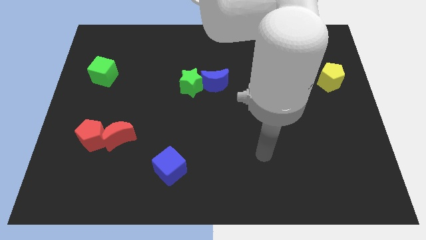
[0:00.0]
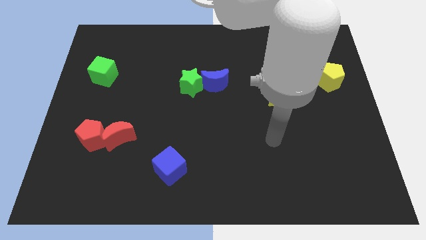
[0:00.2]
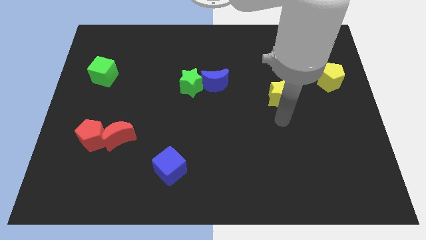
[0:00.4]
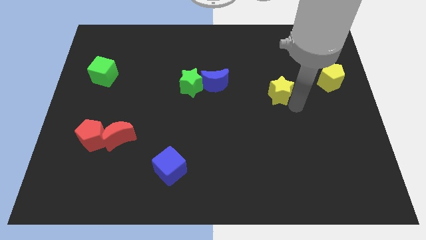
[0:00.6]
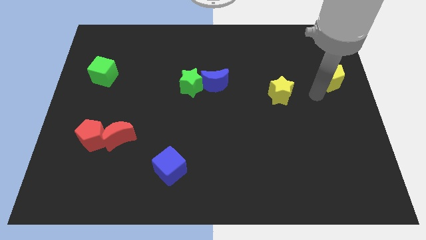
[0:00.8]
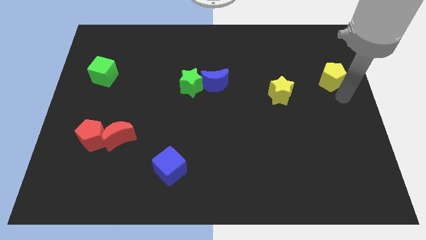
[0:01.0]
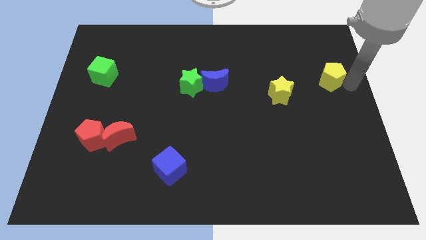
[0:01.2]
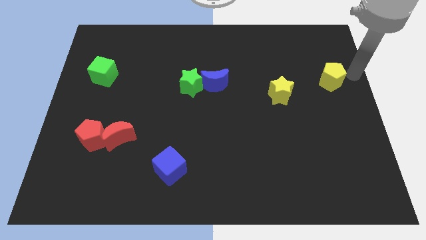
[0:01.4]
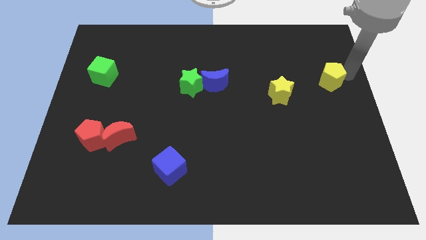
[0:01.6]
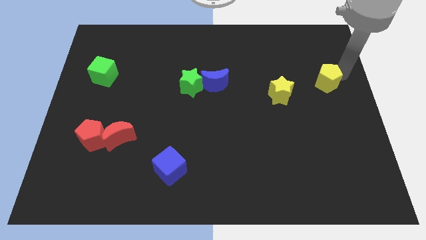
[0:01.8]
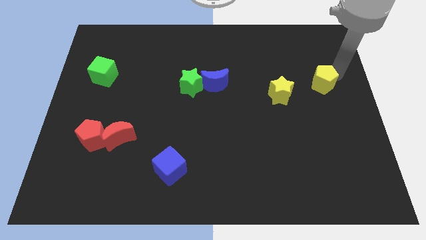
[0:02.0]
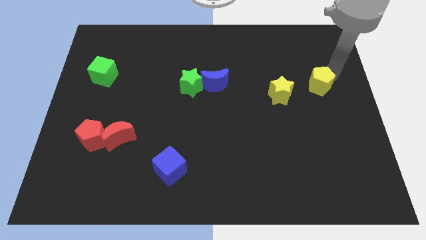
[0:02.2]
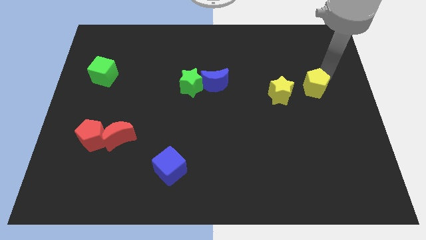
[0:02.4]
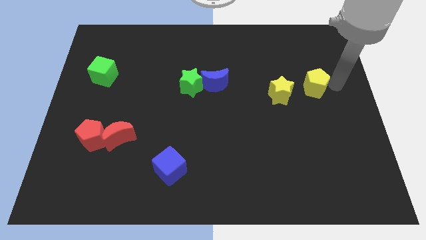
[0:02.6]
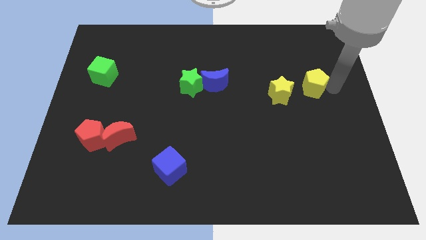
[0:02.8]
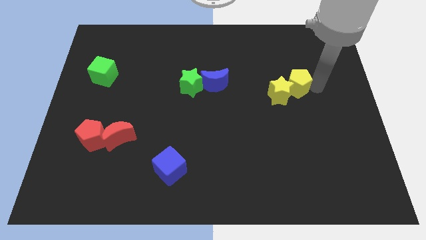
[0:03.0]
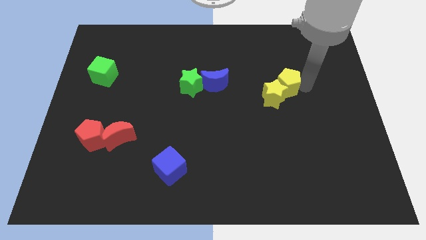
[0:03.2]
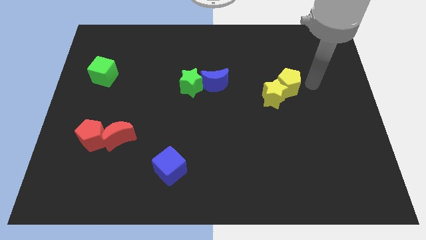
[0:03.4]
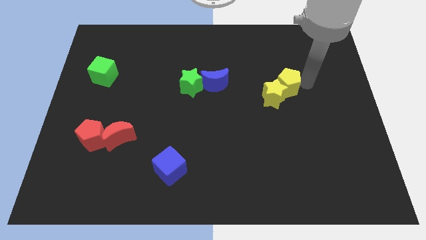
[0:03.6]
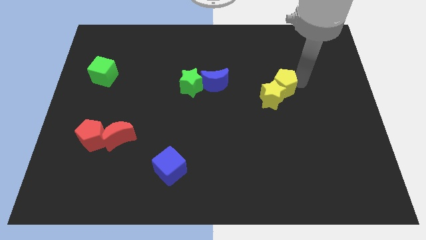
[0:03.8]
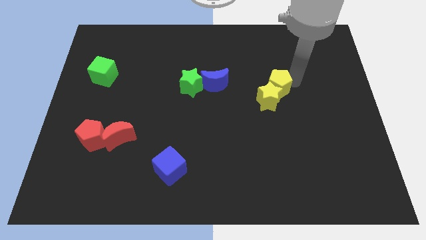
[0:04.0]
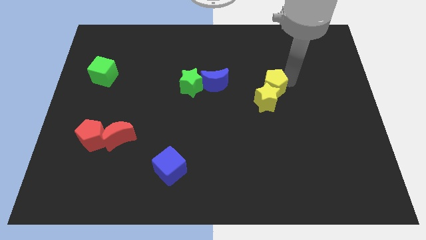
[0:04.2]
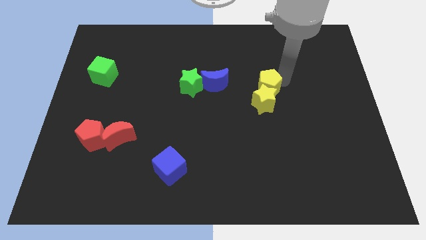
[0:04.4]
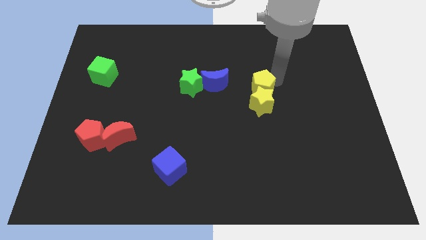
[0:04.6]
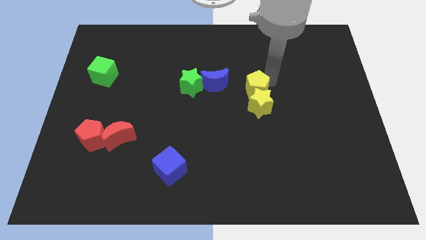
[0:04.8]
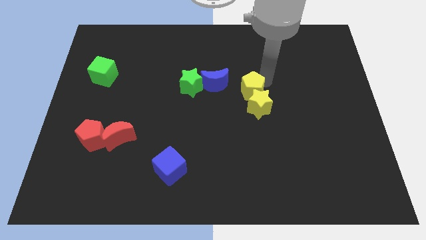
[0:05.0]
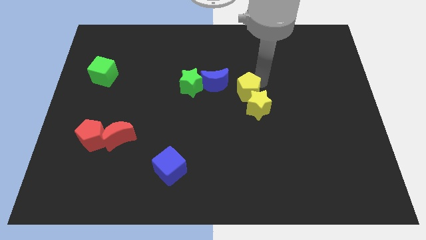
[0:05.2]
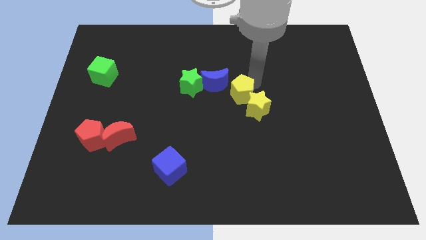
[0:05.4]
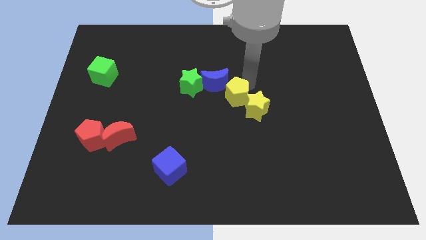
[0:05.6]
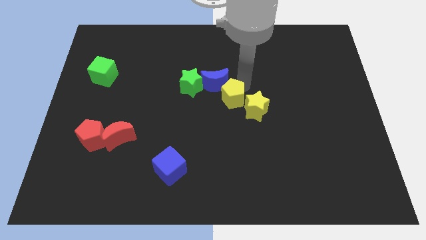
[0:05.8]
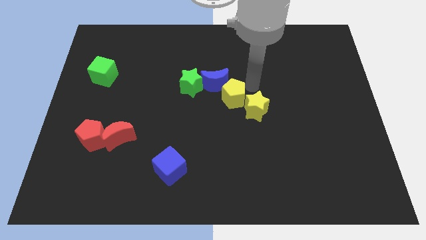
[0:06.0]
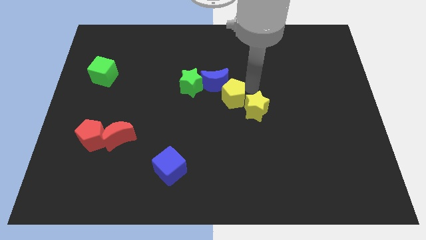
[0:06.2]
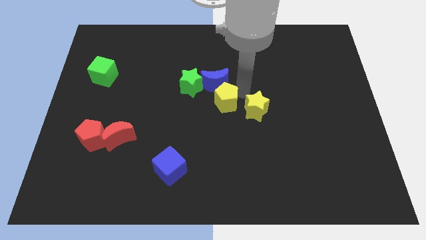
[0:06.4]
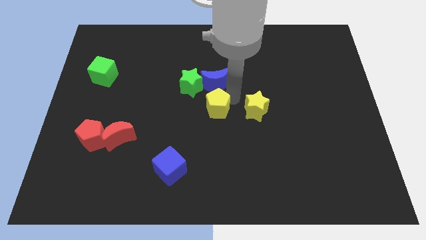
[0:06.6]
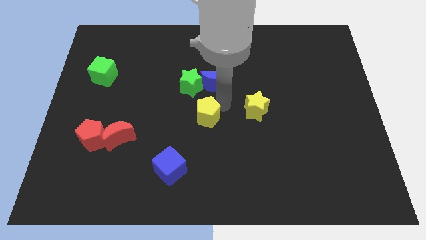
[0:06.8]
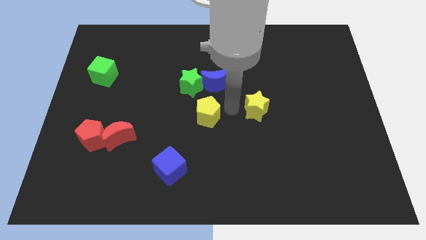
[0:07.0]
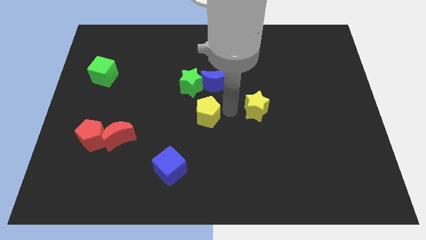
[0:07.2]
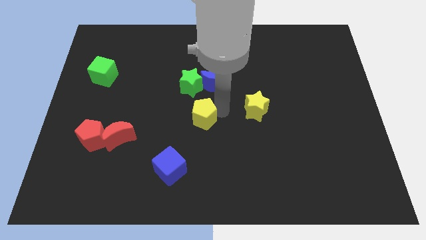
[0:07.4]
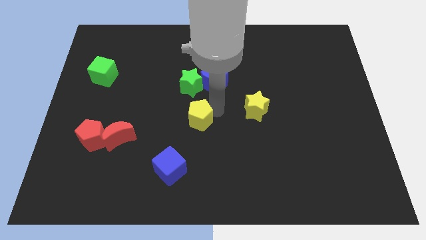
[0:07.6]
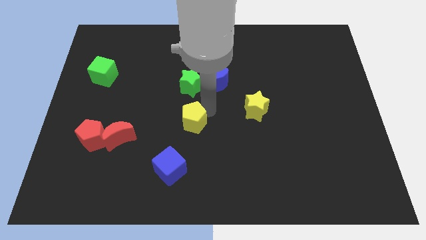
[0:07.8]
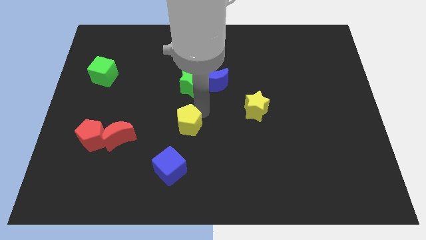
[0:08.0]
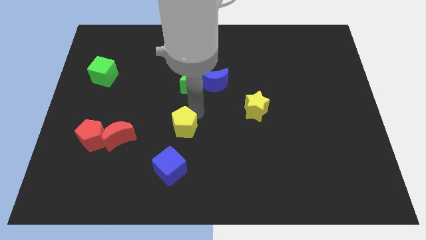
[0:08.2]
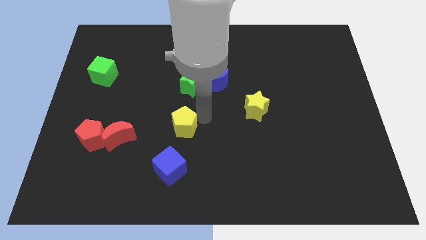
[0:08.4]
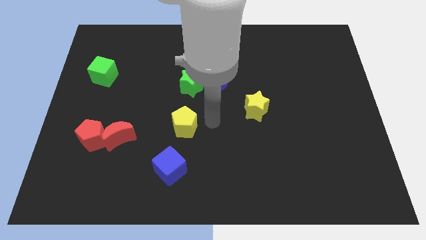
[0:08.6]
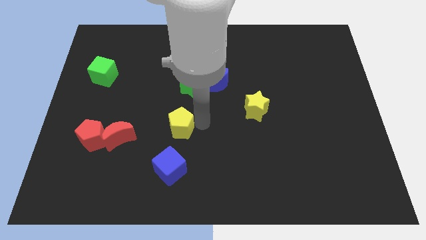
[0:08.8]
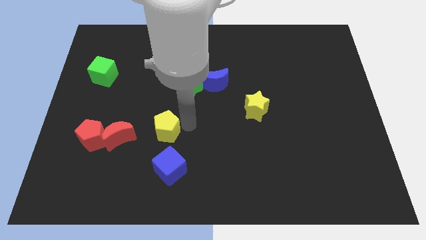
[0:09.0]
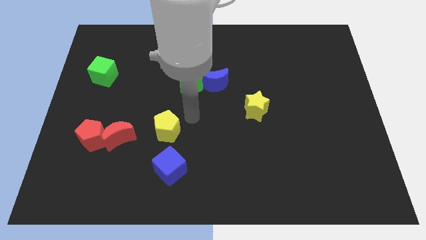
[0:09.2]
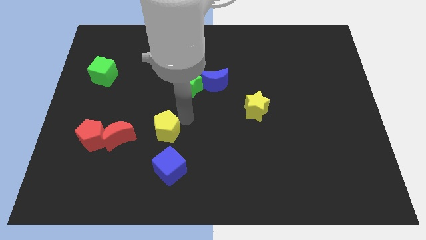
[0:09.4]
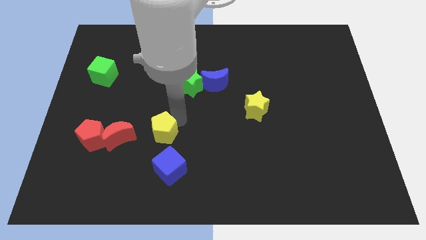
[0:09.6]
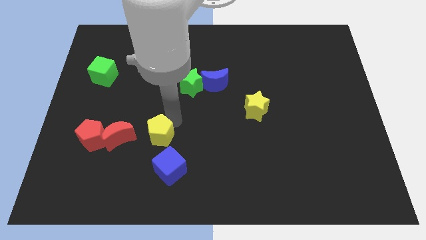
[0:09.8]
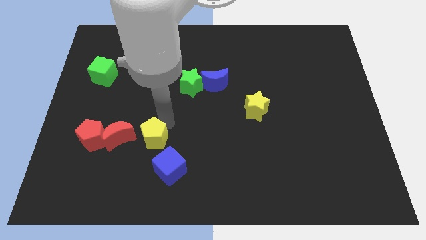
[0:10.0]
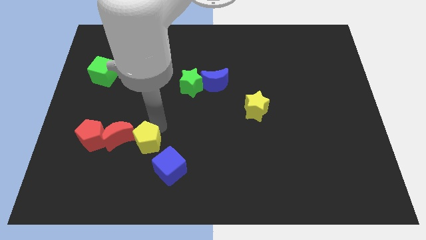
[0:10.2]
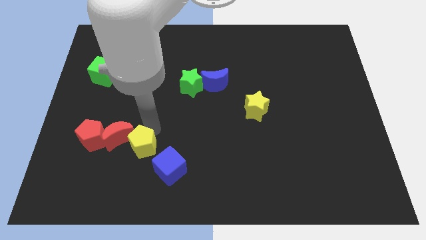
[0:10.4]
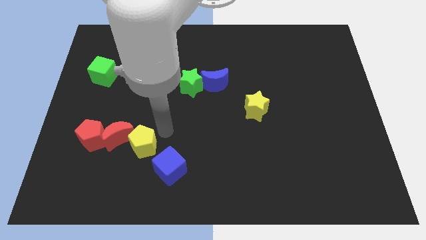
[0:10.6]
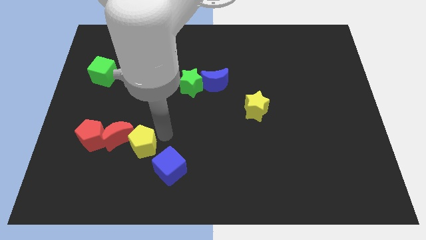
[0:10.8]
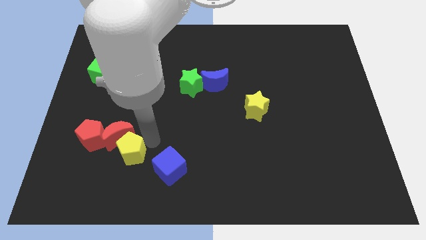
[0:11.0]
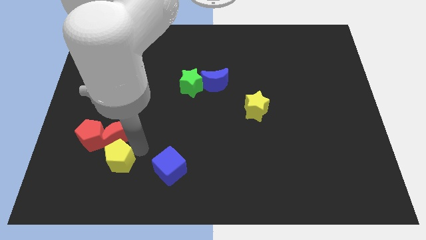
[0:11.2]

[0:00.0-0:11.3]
slide the yellow pentagon diagonally down and to the left of the red moon

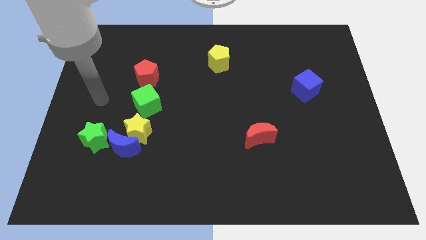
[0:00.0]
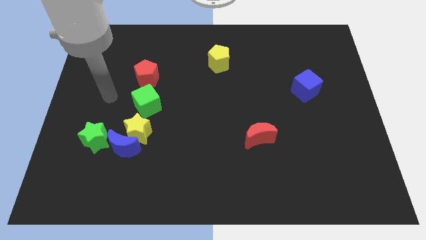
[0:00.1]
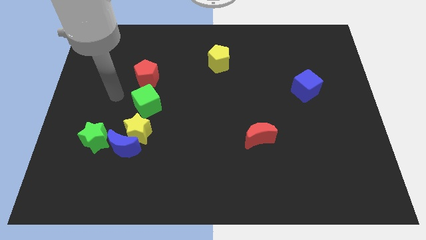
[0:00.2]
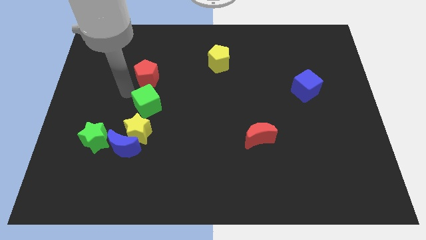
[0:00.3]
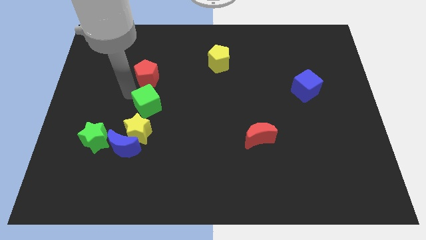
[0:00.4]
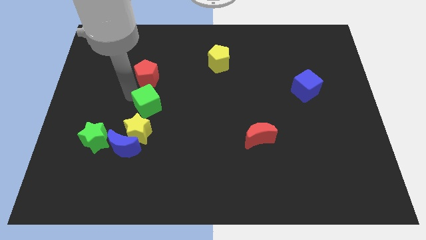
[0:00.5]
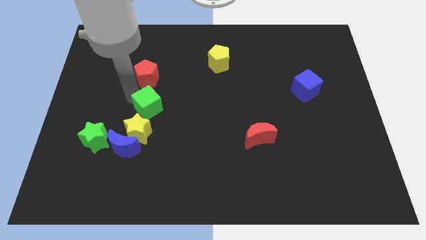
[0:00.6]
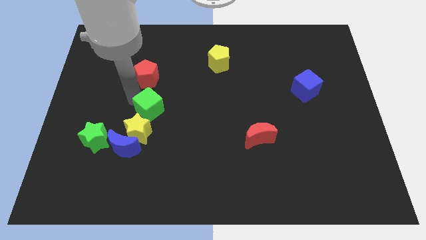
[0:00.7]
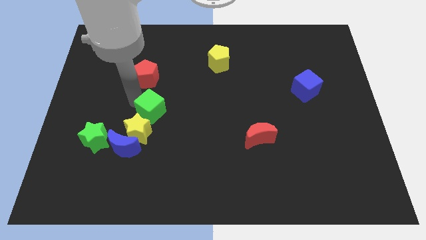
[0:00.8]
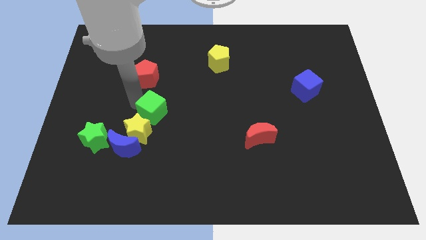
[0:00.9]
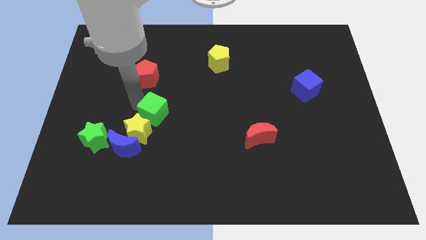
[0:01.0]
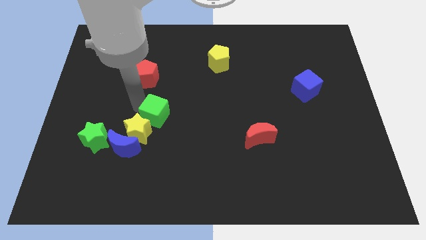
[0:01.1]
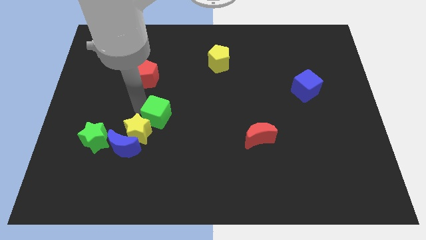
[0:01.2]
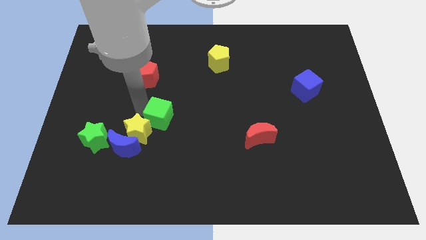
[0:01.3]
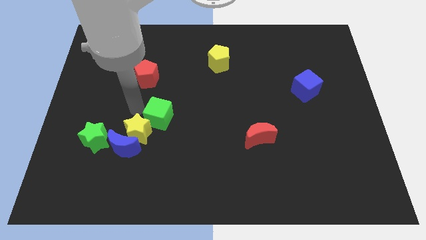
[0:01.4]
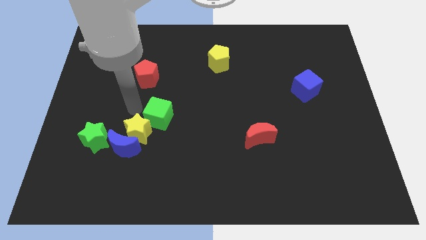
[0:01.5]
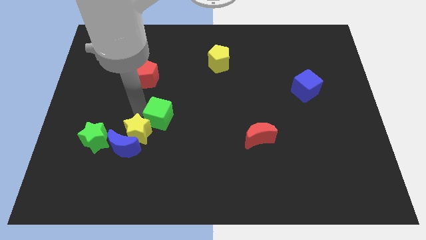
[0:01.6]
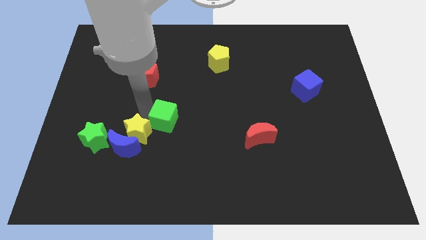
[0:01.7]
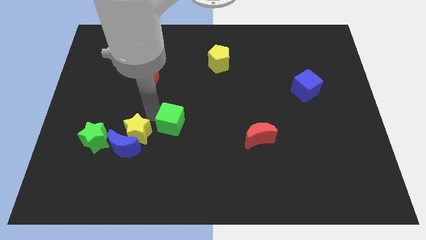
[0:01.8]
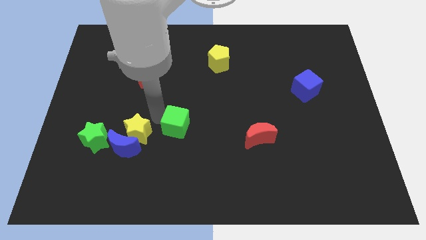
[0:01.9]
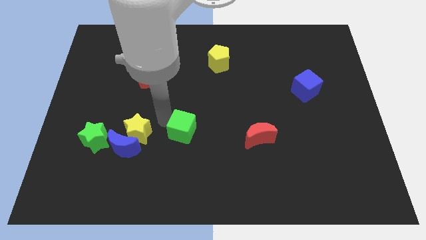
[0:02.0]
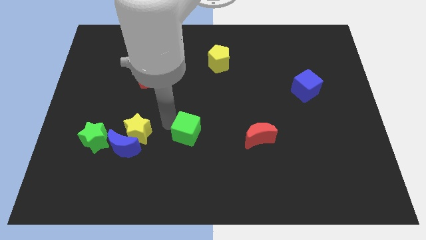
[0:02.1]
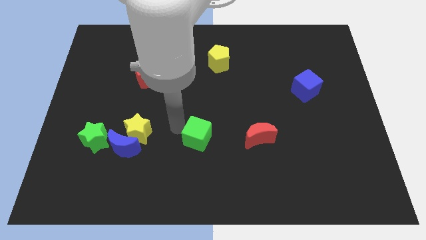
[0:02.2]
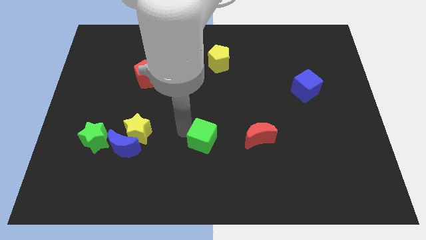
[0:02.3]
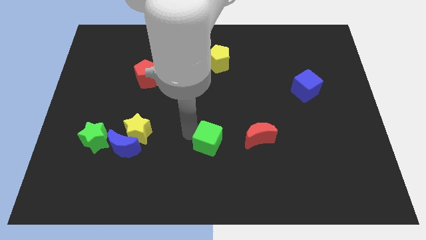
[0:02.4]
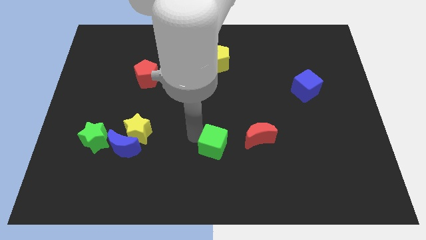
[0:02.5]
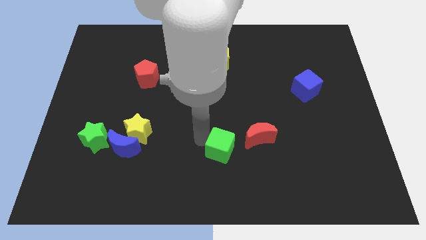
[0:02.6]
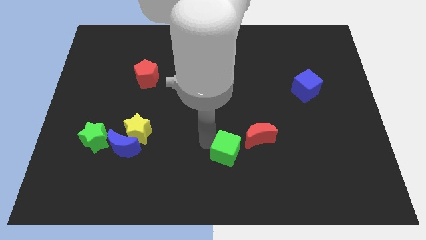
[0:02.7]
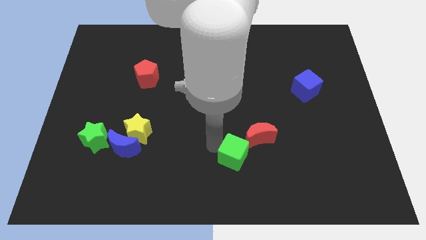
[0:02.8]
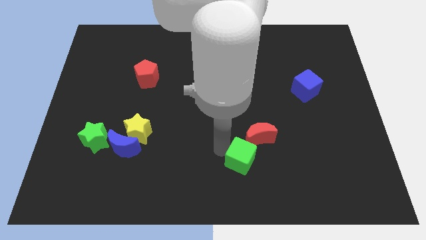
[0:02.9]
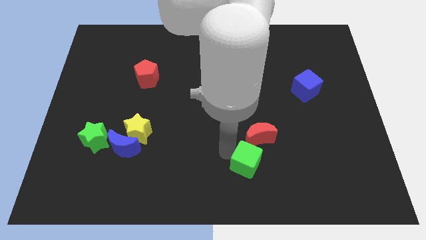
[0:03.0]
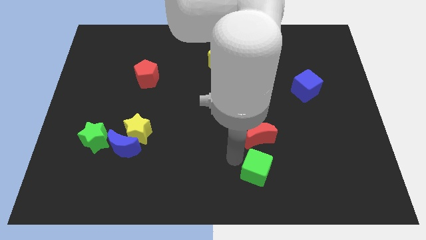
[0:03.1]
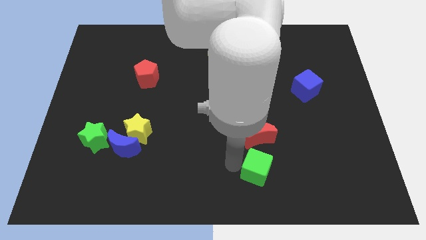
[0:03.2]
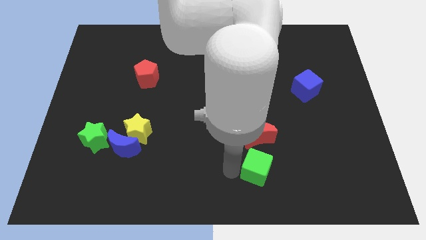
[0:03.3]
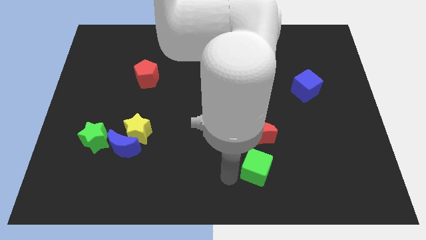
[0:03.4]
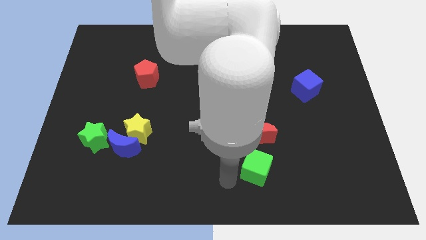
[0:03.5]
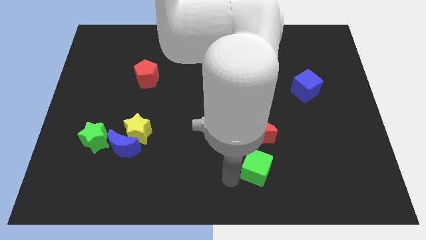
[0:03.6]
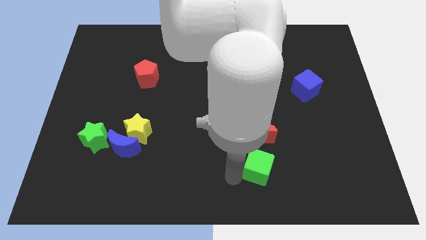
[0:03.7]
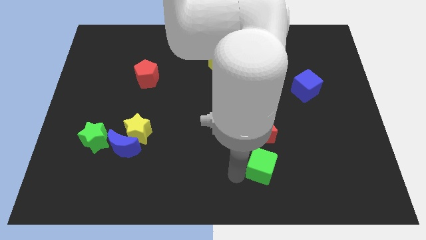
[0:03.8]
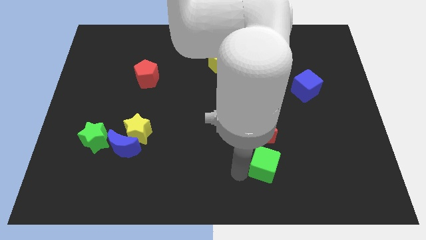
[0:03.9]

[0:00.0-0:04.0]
slide the green cube diagonally down and to the right of the red moon
